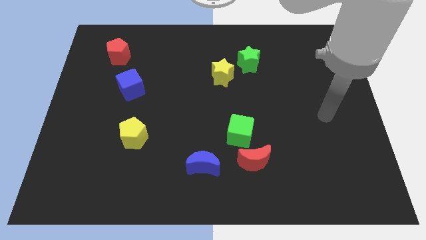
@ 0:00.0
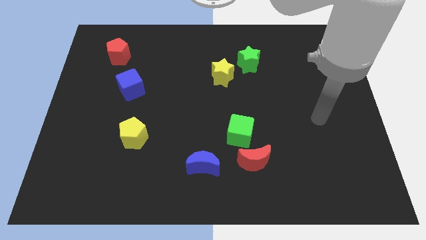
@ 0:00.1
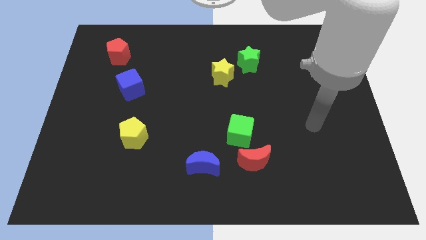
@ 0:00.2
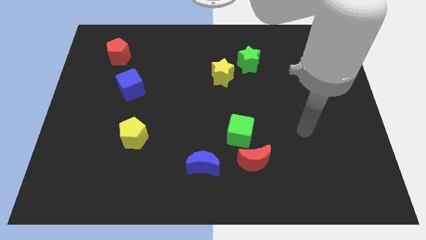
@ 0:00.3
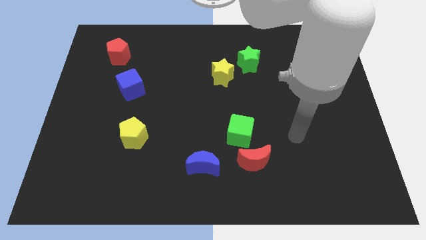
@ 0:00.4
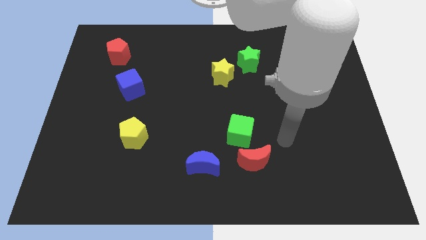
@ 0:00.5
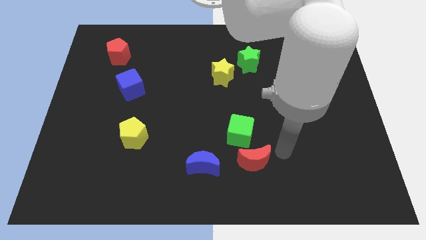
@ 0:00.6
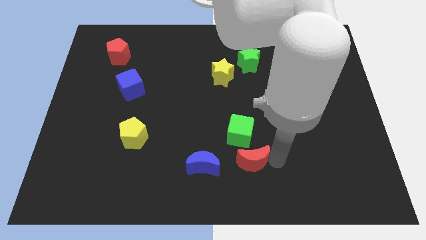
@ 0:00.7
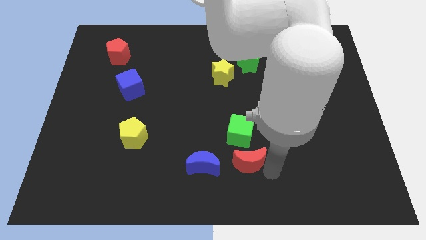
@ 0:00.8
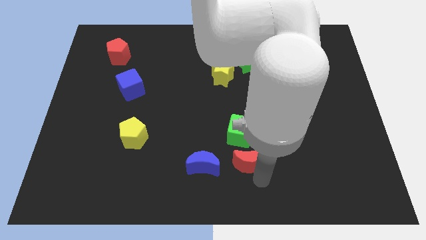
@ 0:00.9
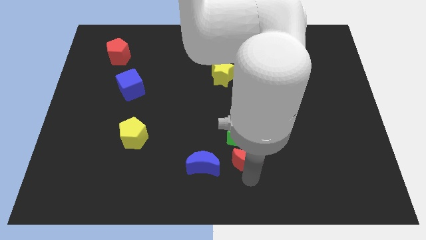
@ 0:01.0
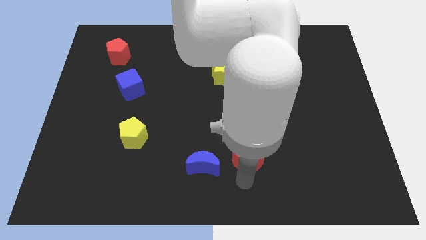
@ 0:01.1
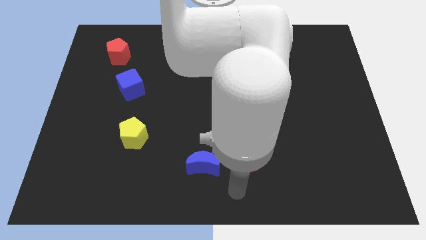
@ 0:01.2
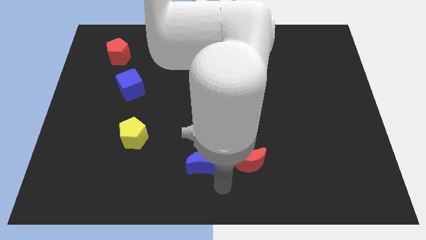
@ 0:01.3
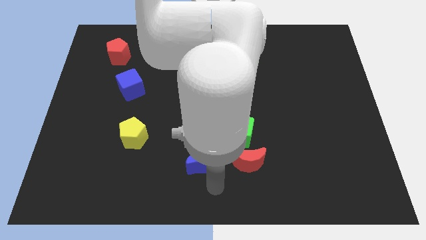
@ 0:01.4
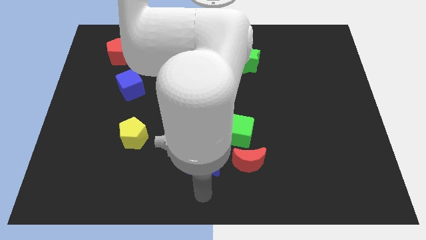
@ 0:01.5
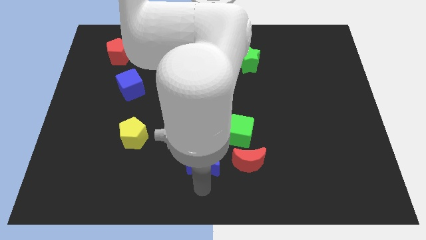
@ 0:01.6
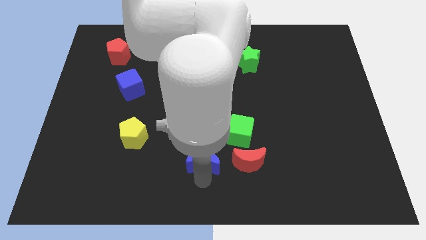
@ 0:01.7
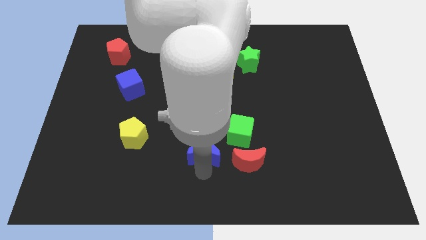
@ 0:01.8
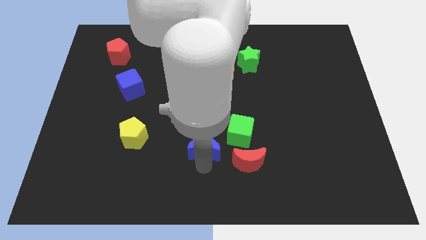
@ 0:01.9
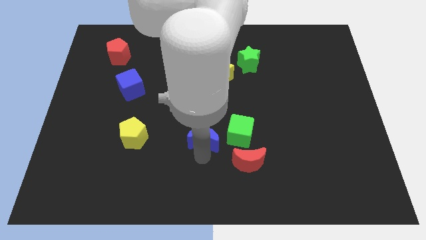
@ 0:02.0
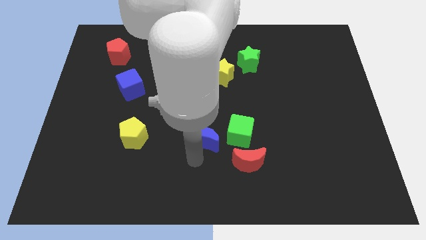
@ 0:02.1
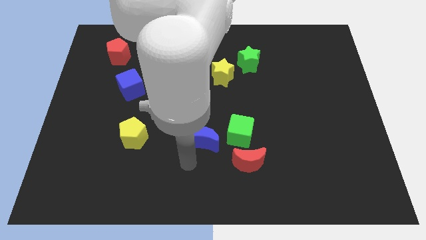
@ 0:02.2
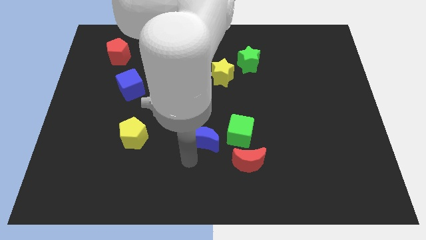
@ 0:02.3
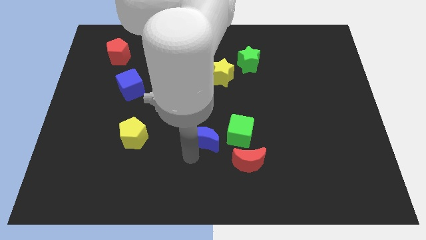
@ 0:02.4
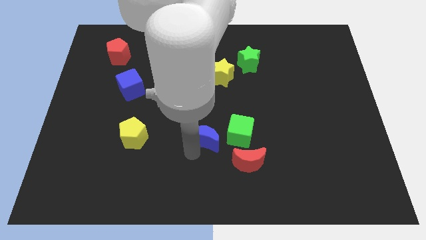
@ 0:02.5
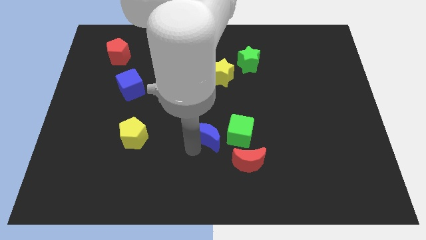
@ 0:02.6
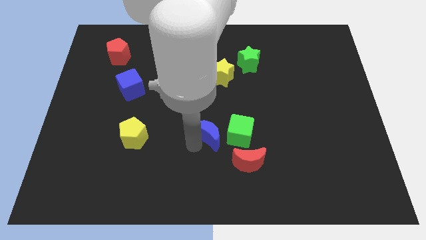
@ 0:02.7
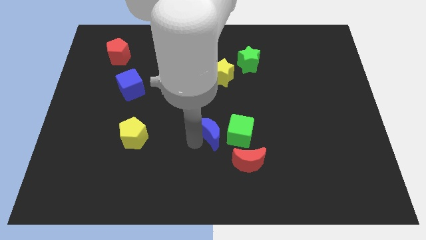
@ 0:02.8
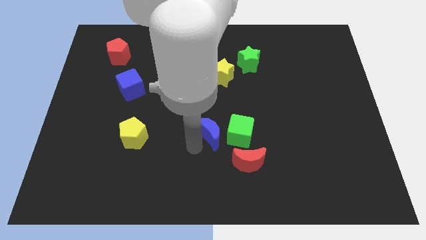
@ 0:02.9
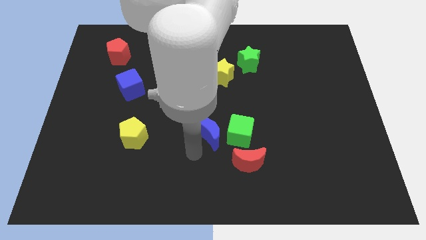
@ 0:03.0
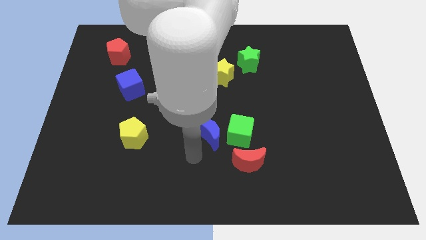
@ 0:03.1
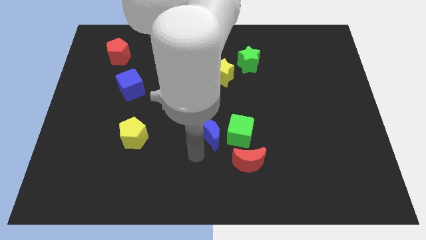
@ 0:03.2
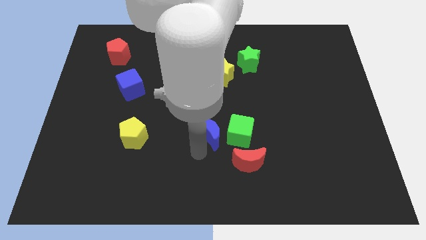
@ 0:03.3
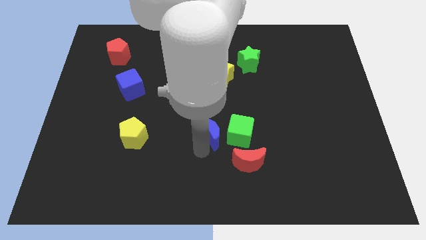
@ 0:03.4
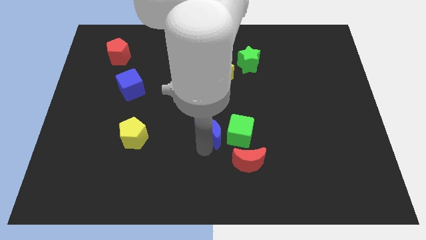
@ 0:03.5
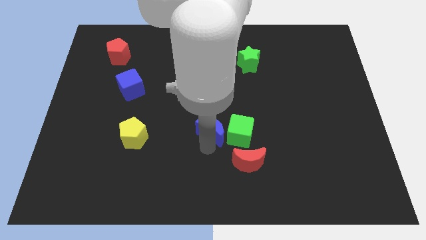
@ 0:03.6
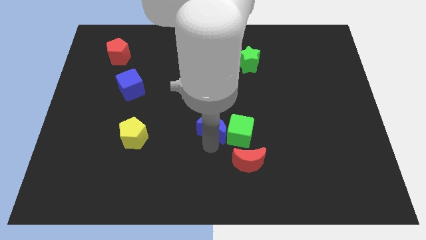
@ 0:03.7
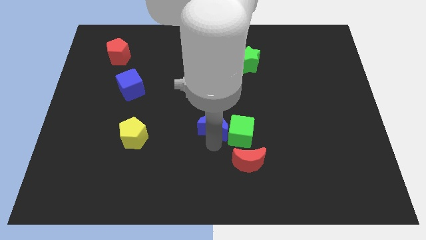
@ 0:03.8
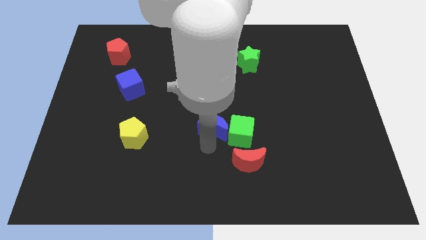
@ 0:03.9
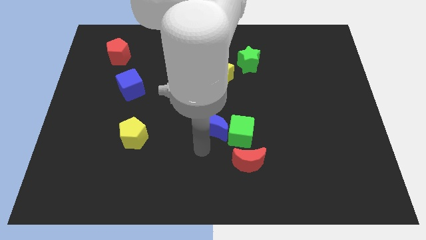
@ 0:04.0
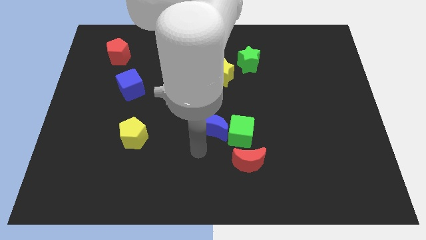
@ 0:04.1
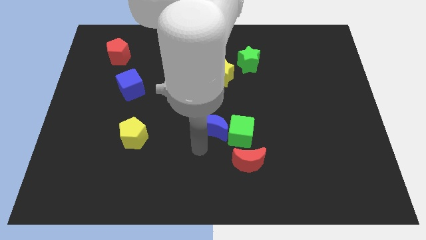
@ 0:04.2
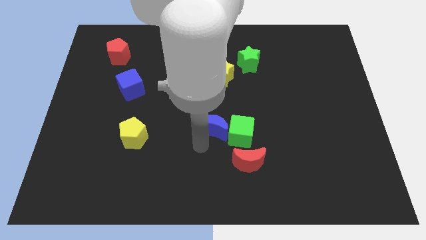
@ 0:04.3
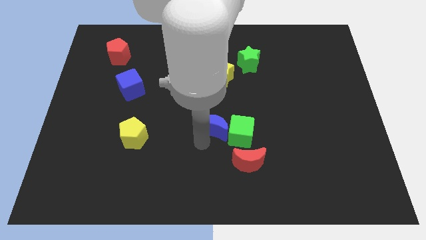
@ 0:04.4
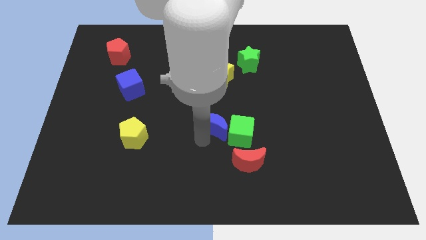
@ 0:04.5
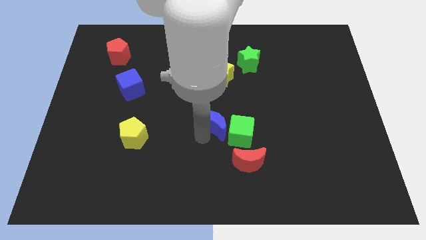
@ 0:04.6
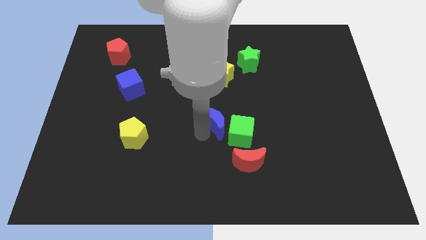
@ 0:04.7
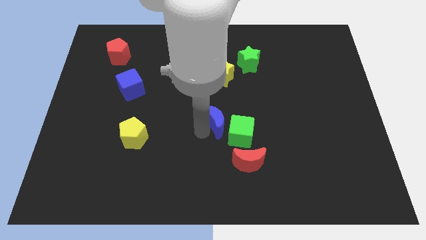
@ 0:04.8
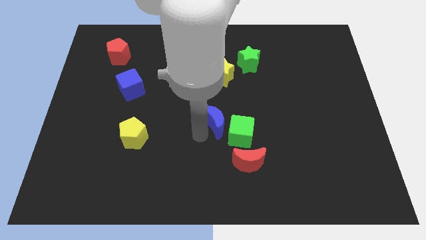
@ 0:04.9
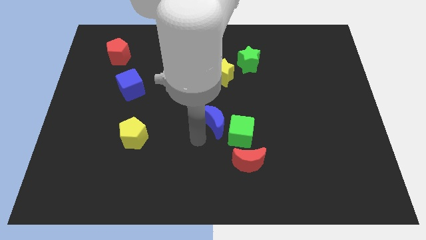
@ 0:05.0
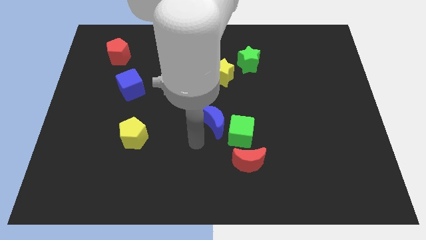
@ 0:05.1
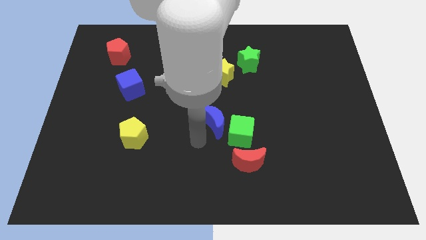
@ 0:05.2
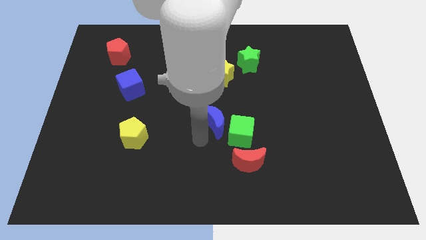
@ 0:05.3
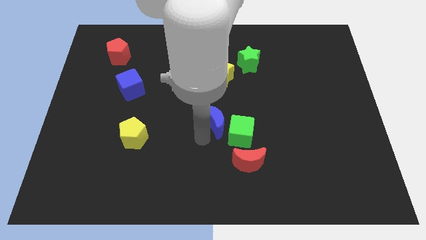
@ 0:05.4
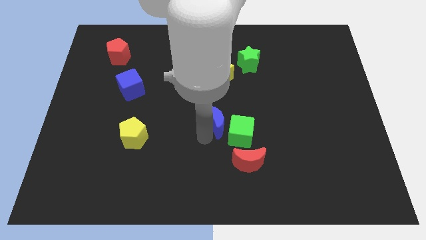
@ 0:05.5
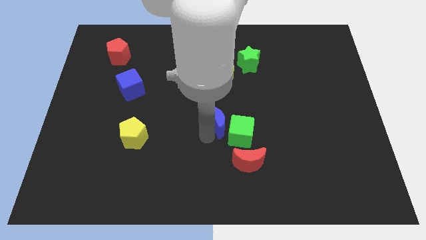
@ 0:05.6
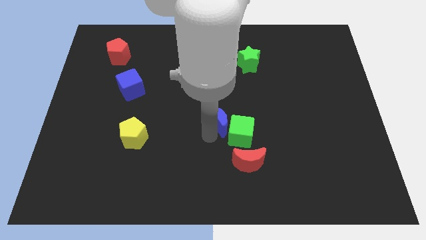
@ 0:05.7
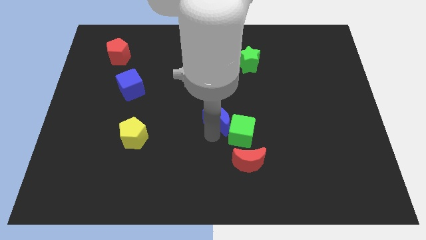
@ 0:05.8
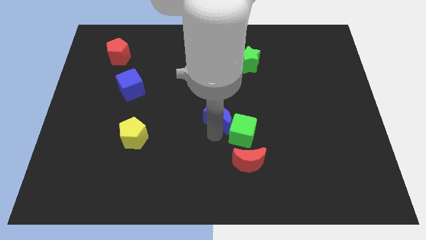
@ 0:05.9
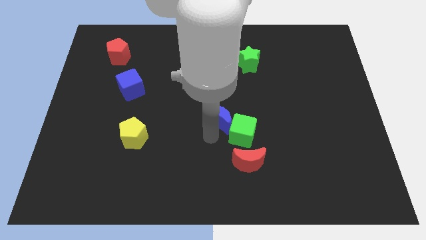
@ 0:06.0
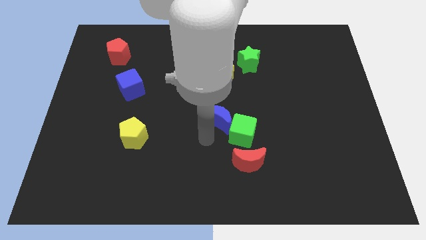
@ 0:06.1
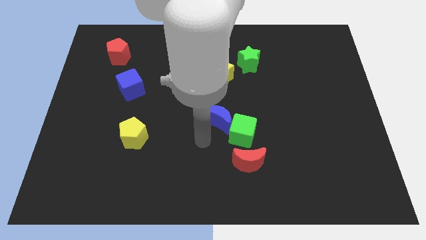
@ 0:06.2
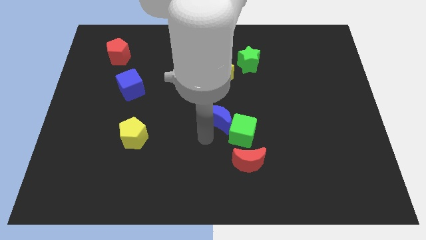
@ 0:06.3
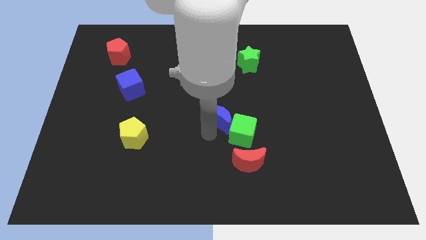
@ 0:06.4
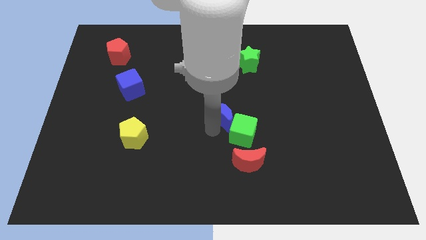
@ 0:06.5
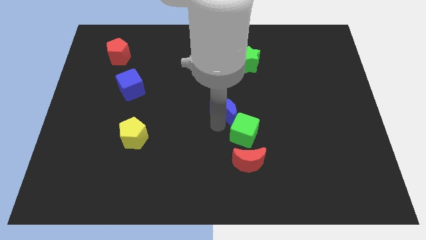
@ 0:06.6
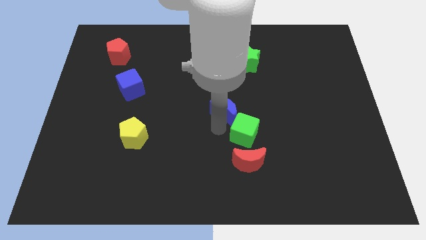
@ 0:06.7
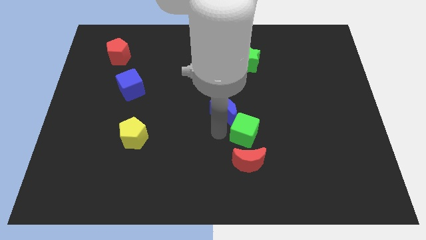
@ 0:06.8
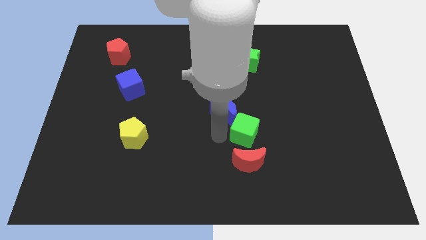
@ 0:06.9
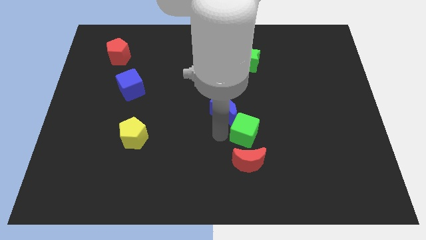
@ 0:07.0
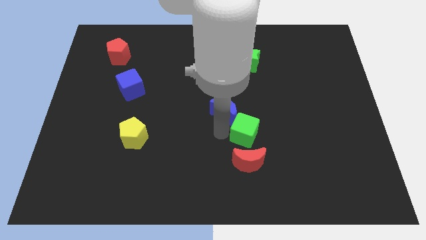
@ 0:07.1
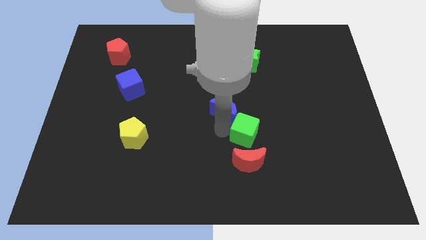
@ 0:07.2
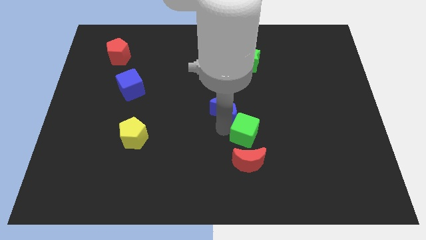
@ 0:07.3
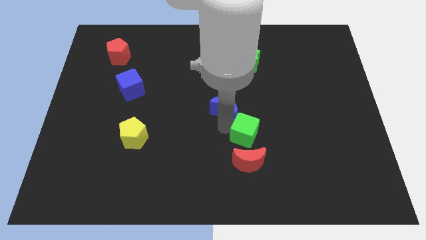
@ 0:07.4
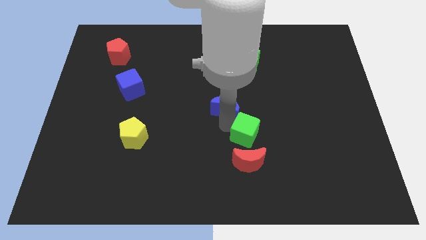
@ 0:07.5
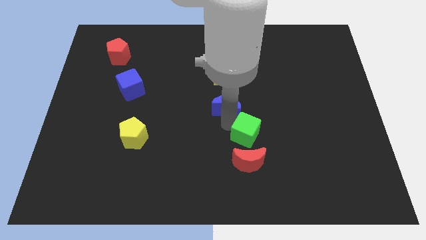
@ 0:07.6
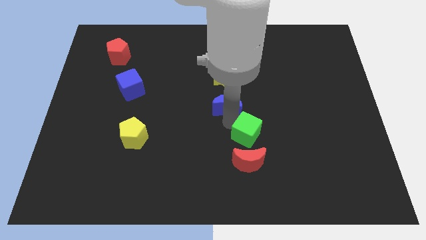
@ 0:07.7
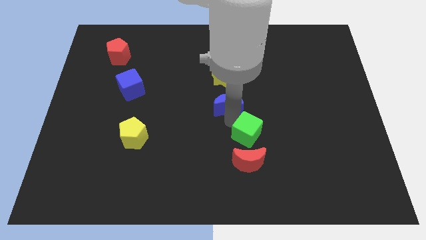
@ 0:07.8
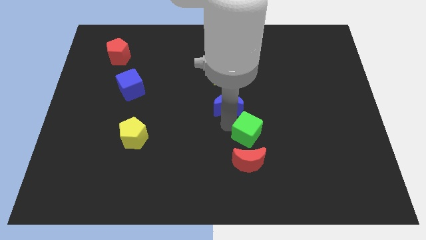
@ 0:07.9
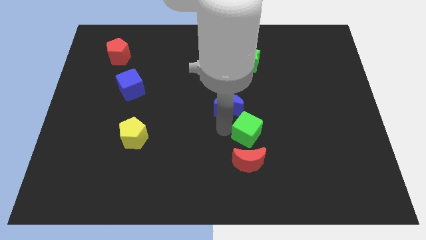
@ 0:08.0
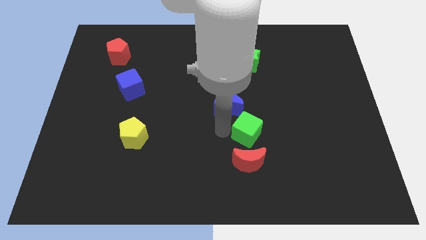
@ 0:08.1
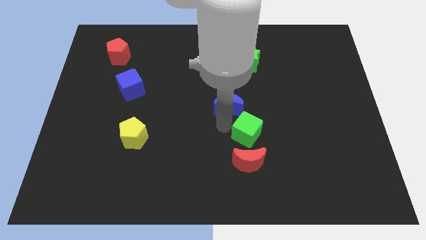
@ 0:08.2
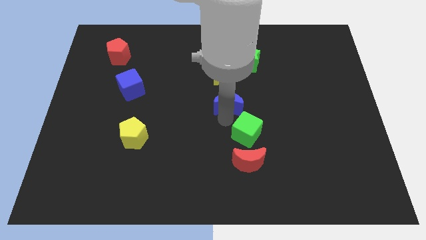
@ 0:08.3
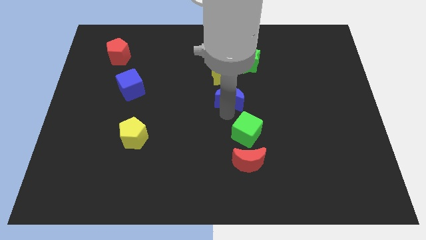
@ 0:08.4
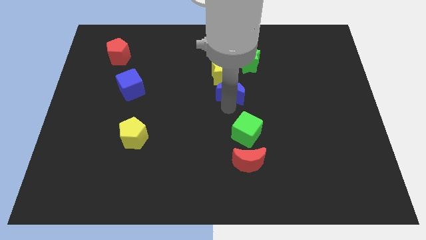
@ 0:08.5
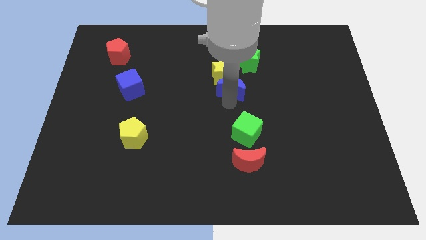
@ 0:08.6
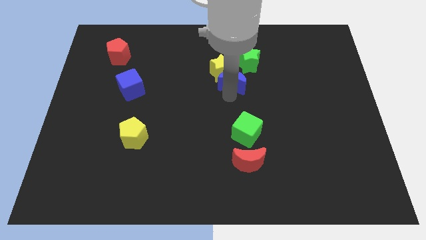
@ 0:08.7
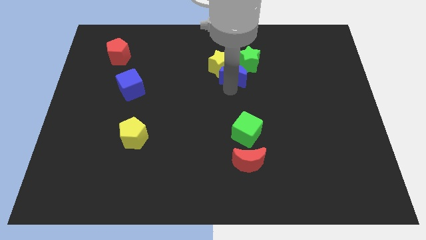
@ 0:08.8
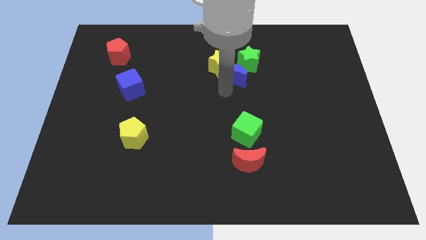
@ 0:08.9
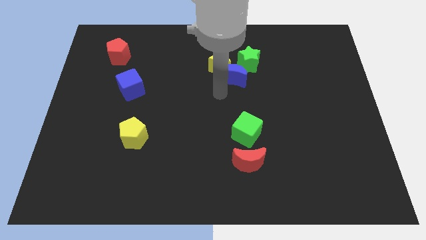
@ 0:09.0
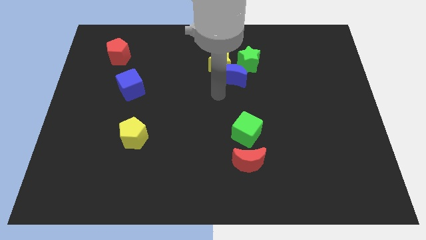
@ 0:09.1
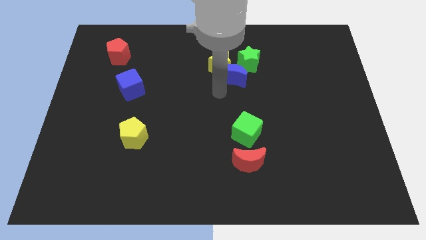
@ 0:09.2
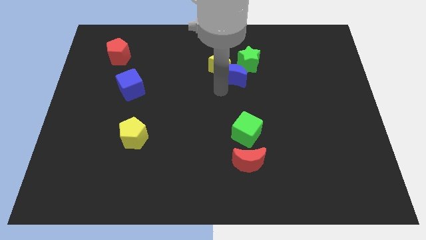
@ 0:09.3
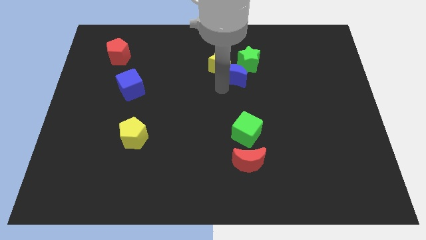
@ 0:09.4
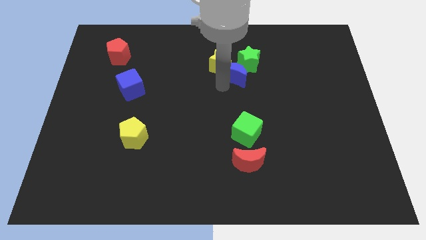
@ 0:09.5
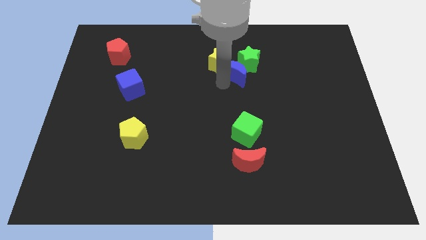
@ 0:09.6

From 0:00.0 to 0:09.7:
push the blue moon close to the green star
